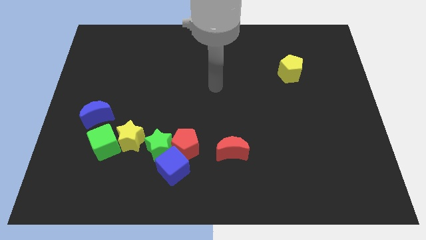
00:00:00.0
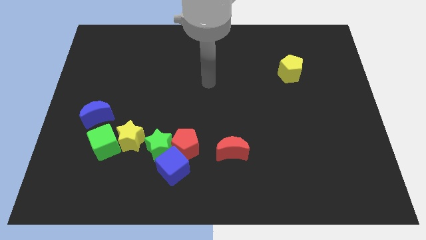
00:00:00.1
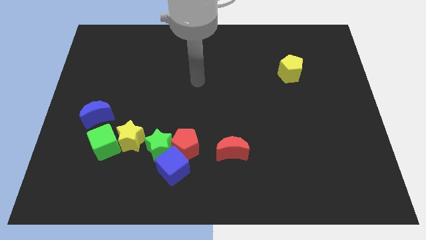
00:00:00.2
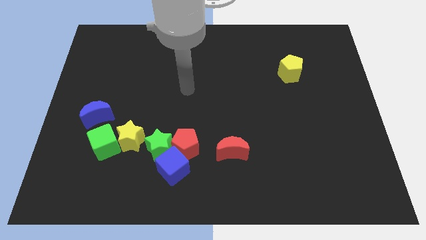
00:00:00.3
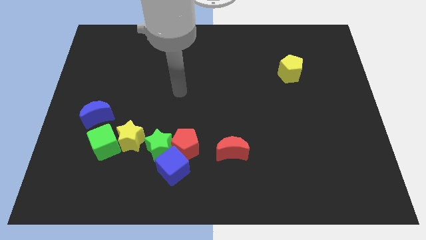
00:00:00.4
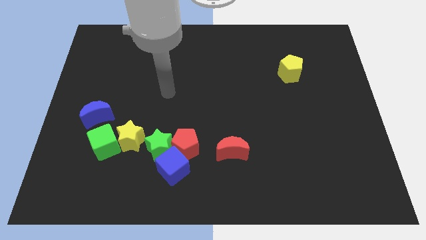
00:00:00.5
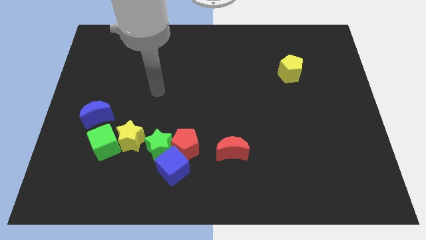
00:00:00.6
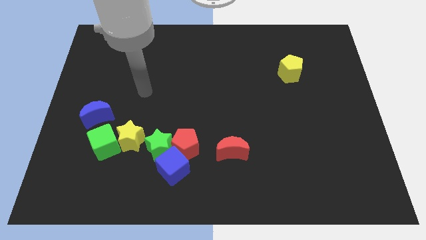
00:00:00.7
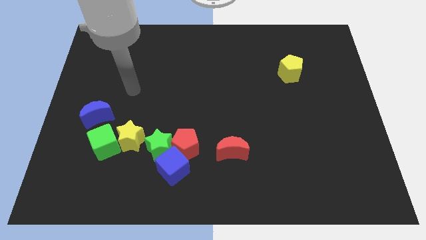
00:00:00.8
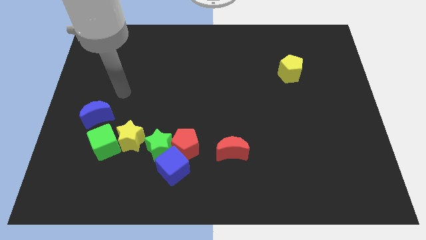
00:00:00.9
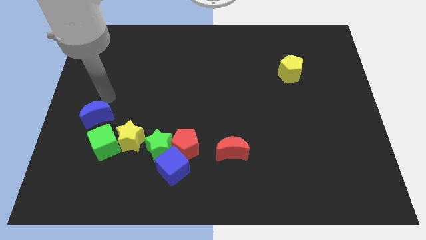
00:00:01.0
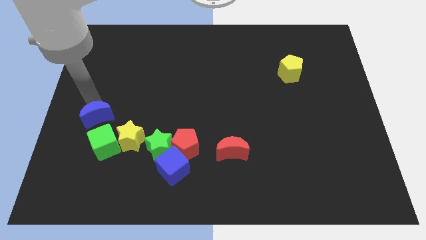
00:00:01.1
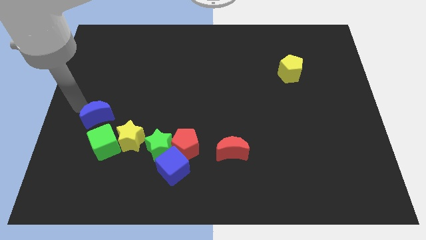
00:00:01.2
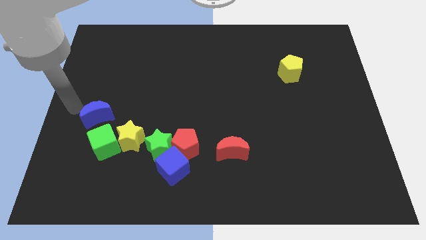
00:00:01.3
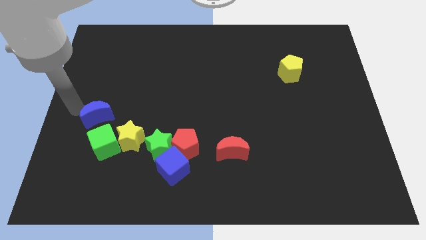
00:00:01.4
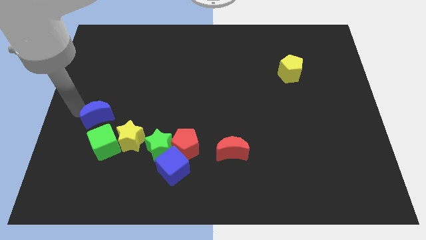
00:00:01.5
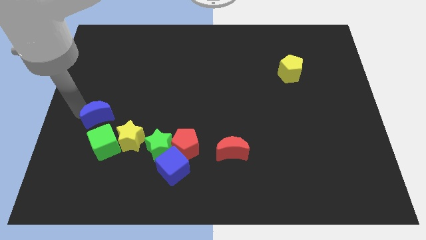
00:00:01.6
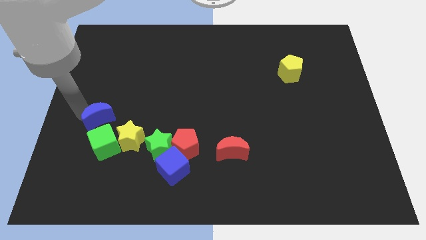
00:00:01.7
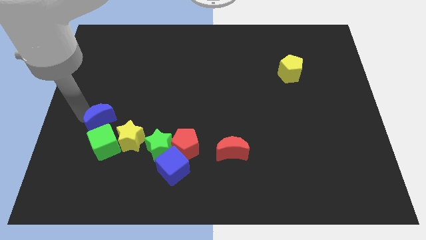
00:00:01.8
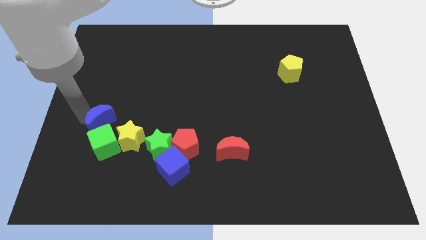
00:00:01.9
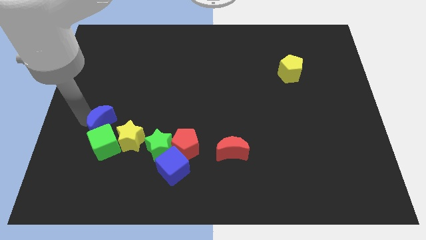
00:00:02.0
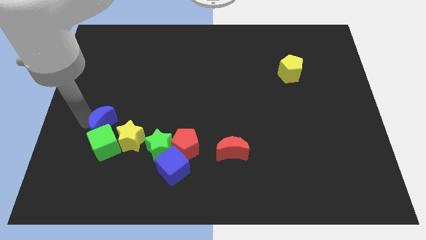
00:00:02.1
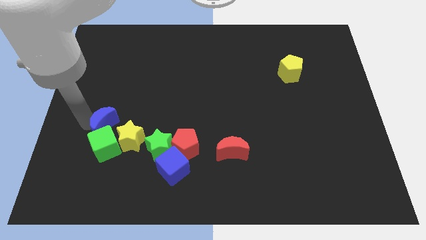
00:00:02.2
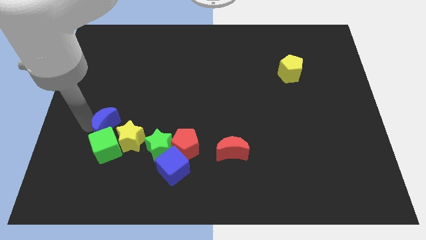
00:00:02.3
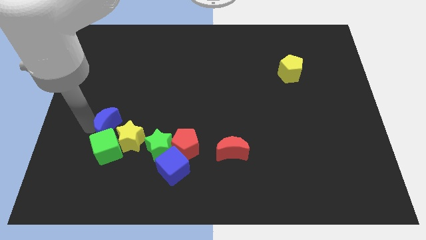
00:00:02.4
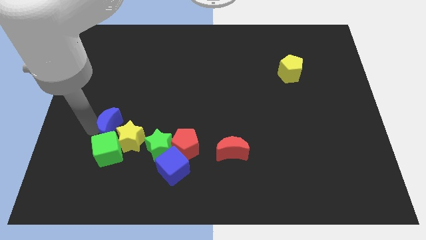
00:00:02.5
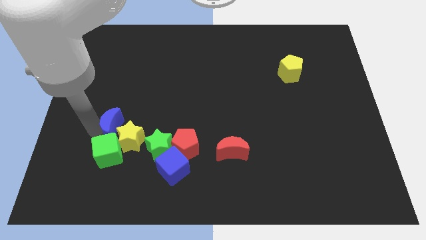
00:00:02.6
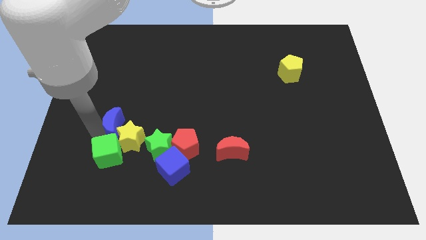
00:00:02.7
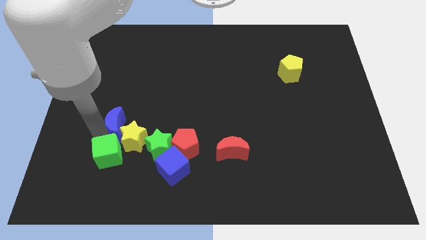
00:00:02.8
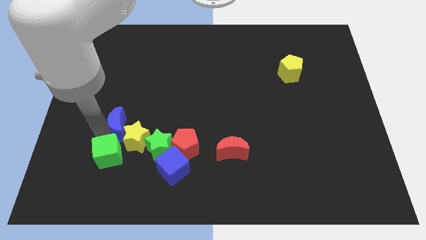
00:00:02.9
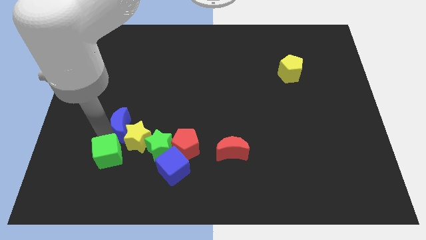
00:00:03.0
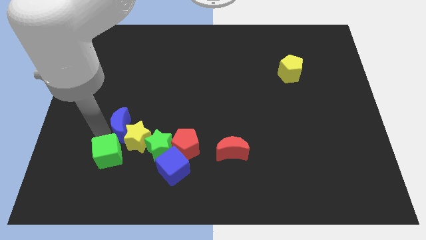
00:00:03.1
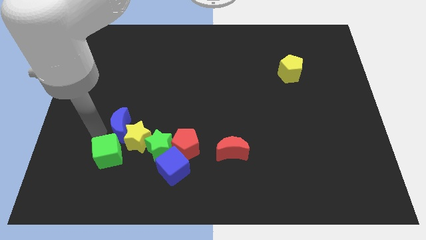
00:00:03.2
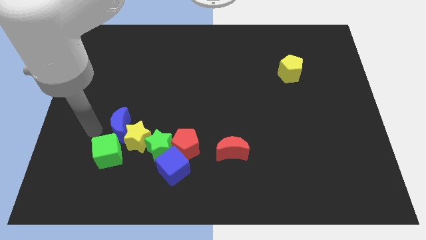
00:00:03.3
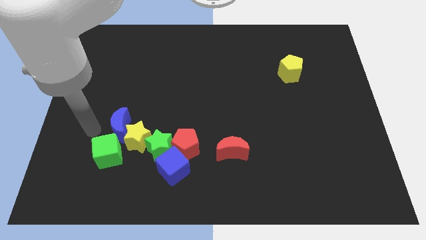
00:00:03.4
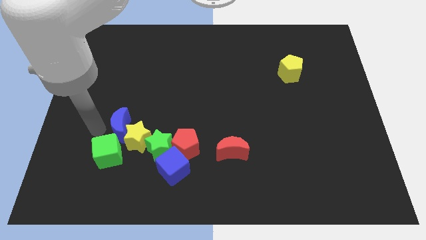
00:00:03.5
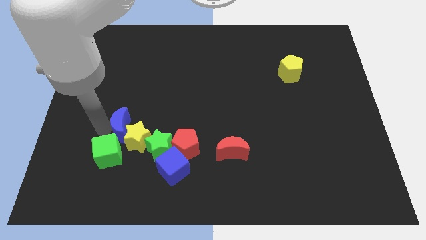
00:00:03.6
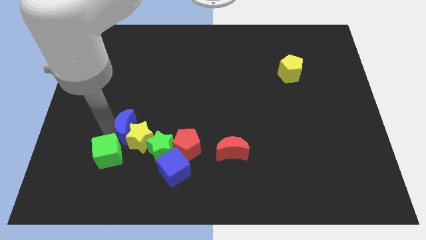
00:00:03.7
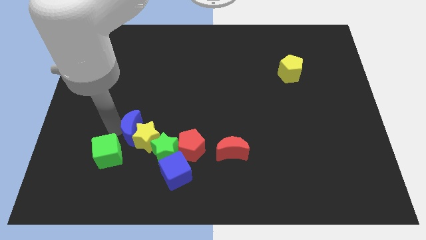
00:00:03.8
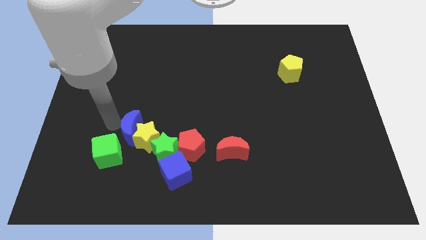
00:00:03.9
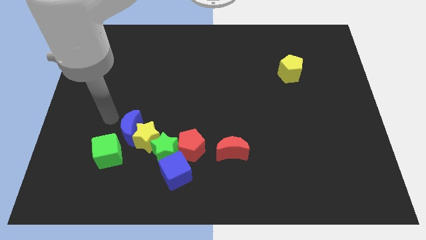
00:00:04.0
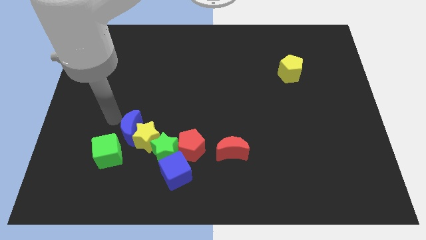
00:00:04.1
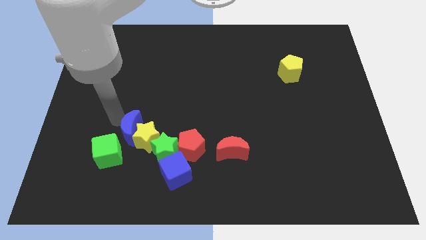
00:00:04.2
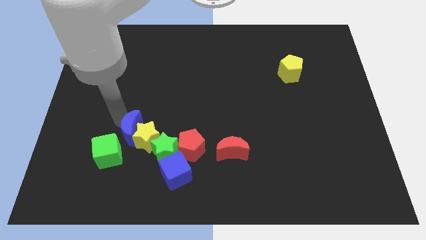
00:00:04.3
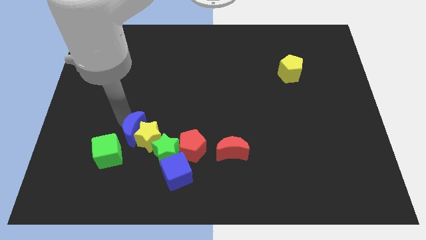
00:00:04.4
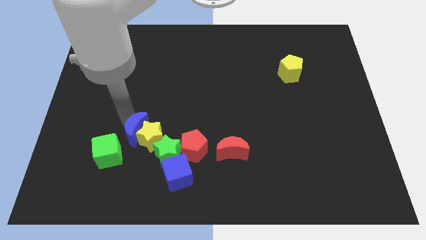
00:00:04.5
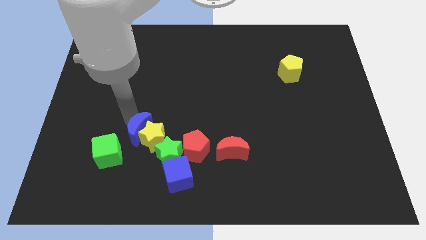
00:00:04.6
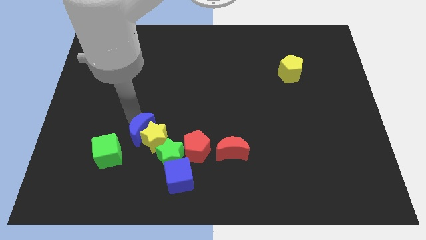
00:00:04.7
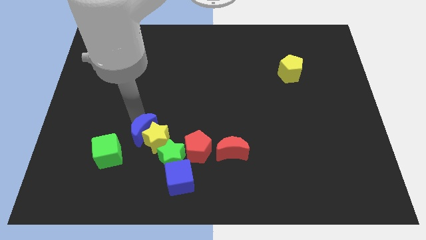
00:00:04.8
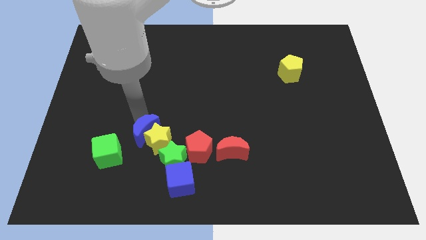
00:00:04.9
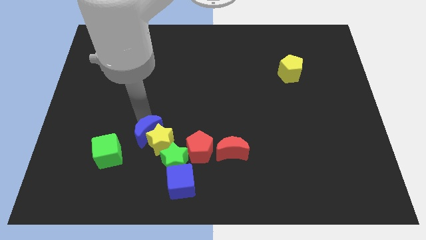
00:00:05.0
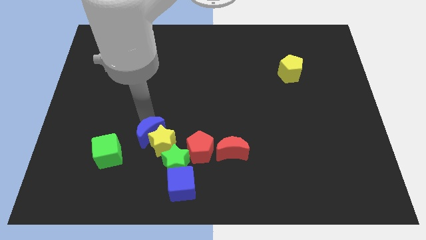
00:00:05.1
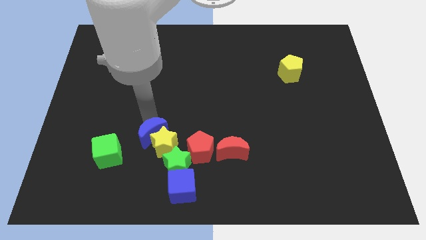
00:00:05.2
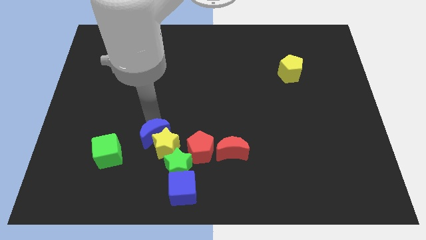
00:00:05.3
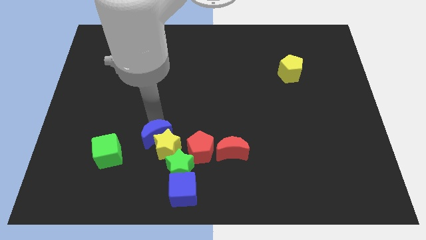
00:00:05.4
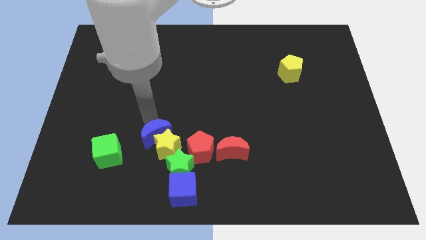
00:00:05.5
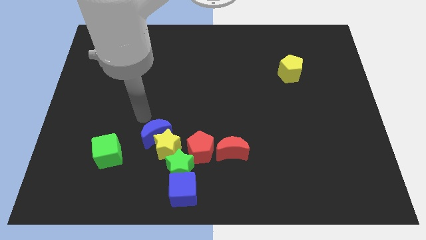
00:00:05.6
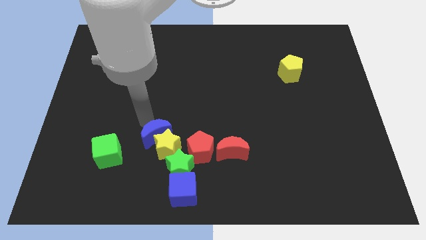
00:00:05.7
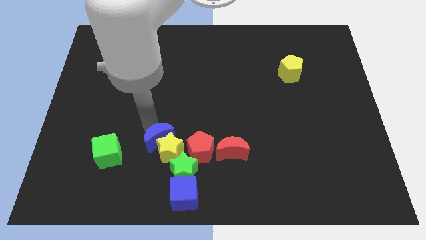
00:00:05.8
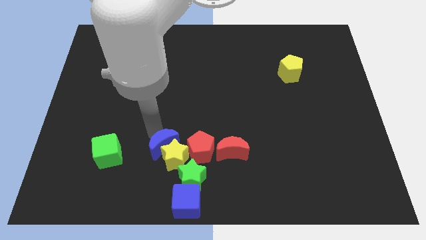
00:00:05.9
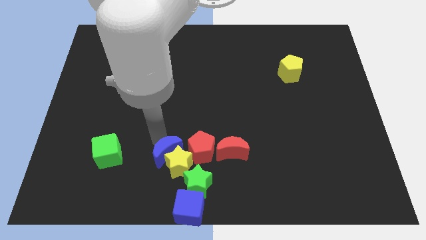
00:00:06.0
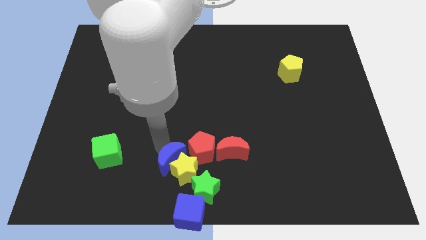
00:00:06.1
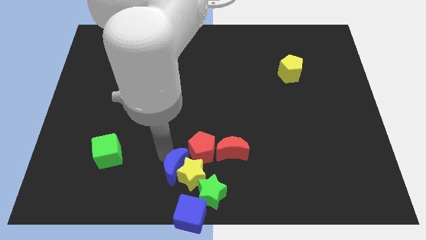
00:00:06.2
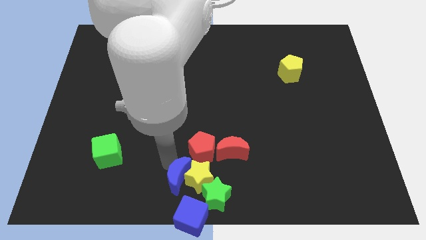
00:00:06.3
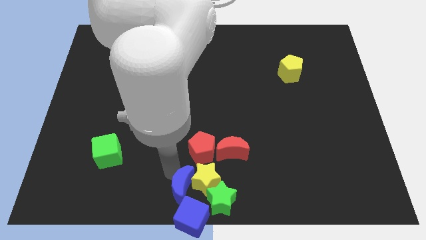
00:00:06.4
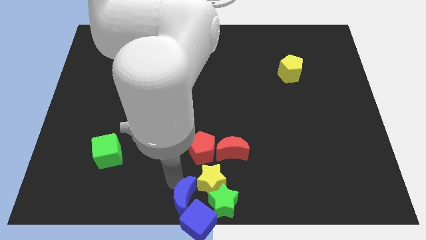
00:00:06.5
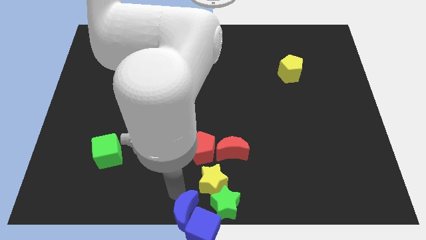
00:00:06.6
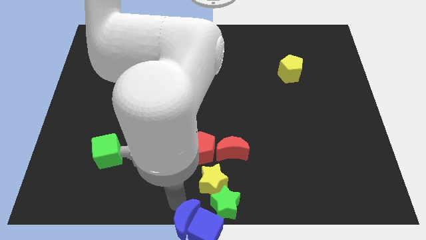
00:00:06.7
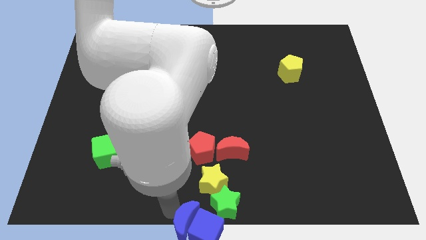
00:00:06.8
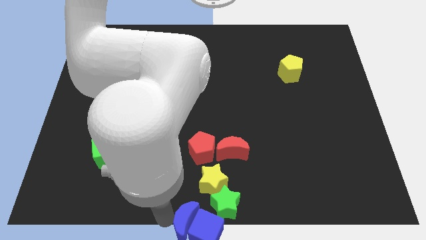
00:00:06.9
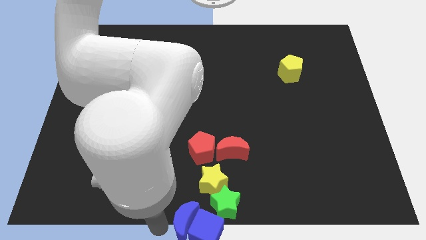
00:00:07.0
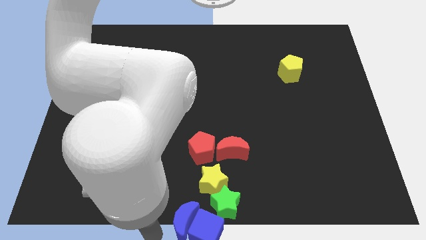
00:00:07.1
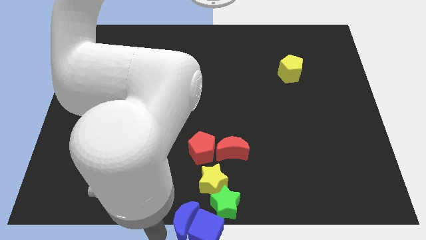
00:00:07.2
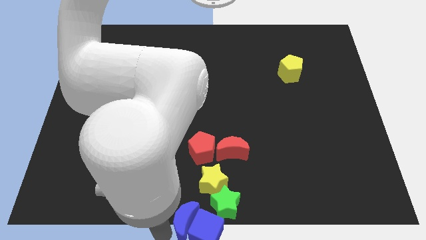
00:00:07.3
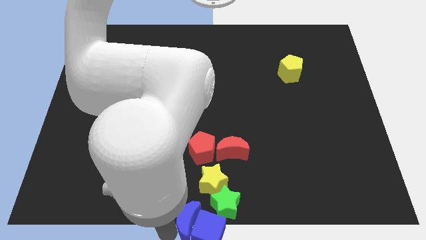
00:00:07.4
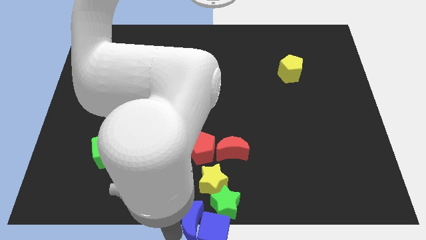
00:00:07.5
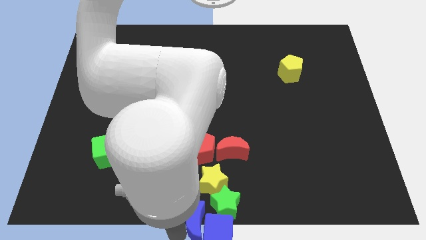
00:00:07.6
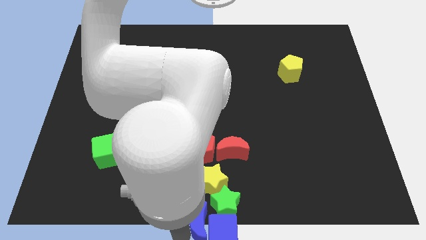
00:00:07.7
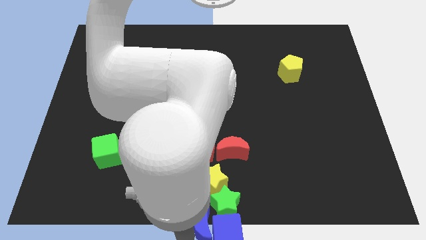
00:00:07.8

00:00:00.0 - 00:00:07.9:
move the blue moon close to the green star
